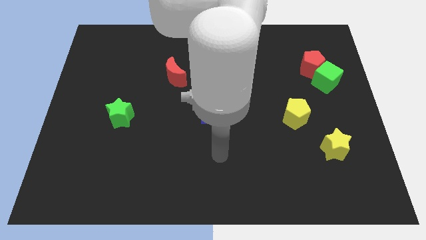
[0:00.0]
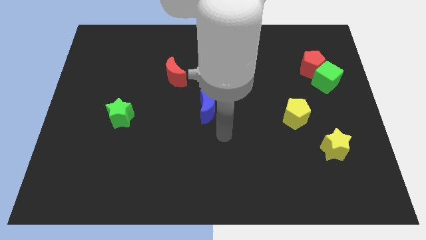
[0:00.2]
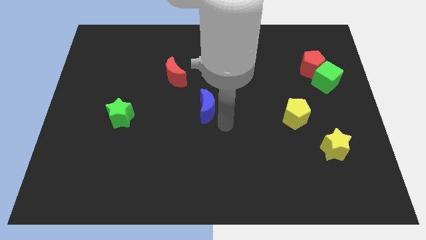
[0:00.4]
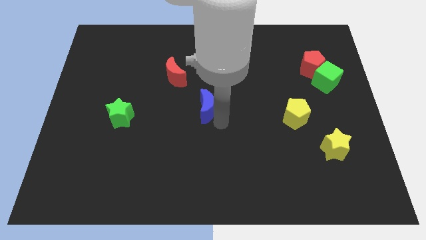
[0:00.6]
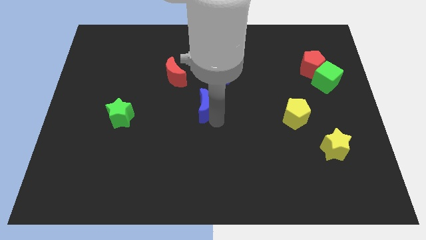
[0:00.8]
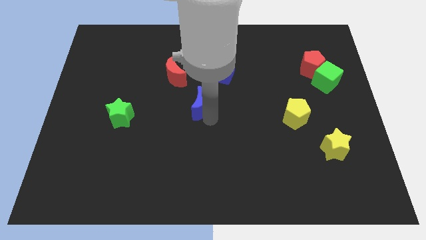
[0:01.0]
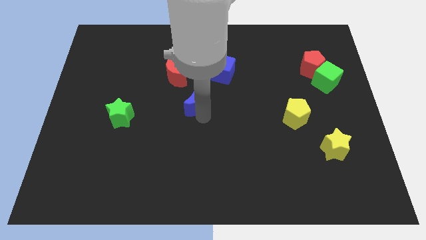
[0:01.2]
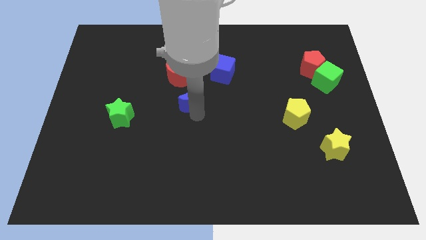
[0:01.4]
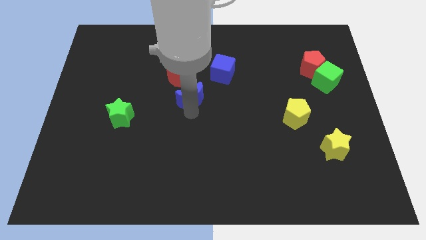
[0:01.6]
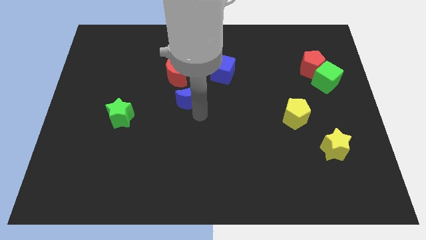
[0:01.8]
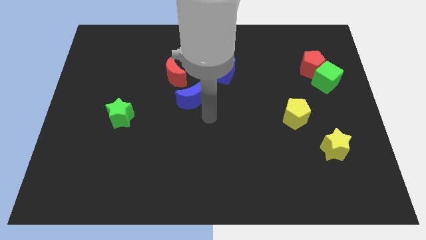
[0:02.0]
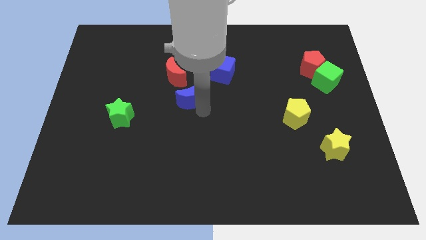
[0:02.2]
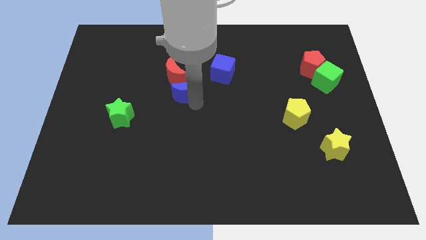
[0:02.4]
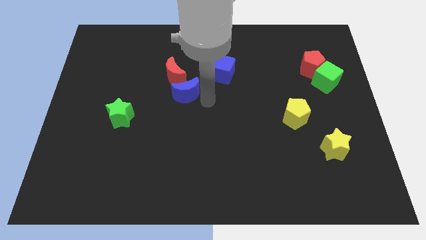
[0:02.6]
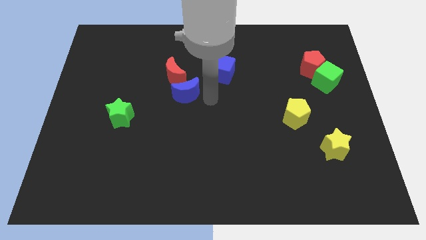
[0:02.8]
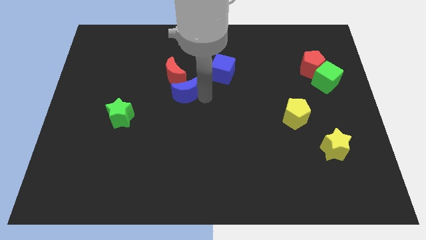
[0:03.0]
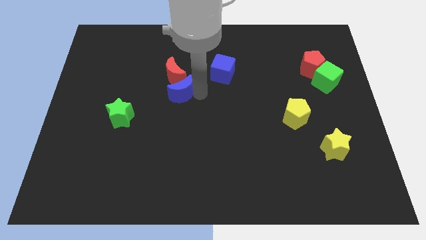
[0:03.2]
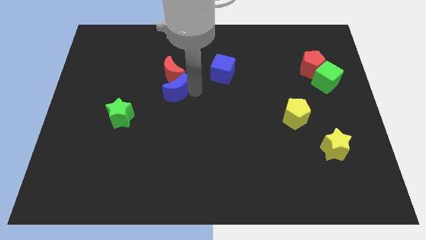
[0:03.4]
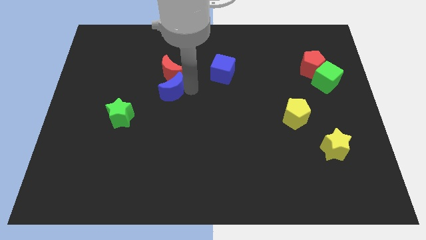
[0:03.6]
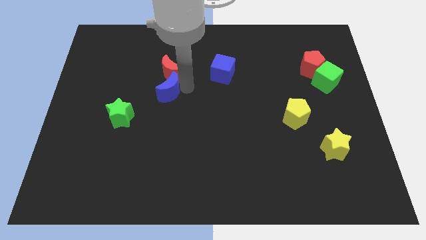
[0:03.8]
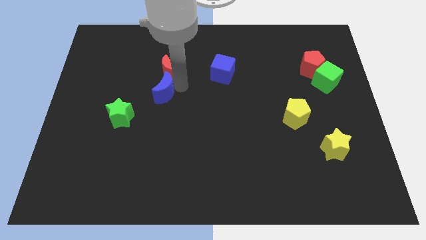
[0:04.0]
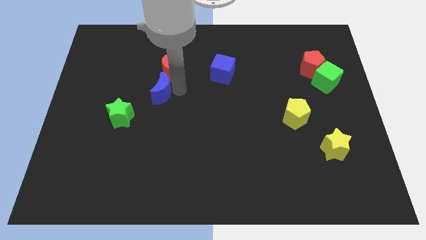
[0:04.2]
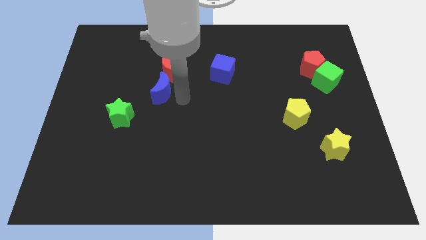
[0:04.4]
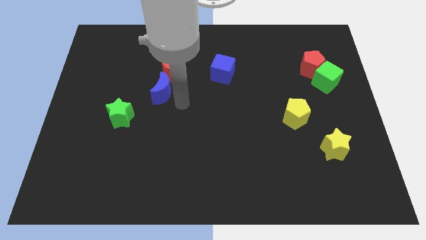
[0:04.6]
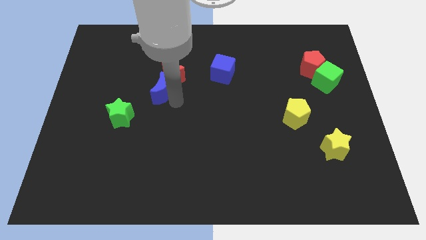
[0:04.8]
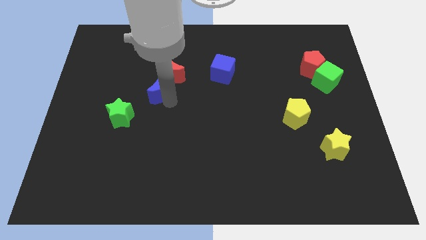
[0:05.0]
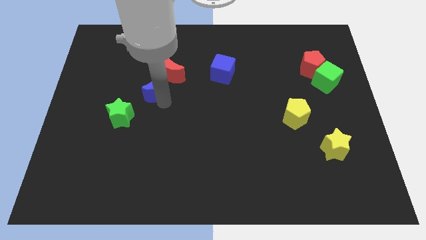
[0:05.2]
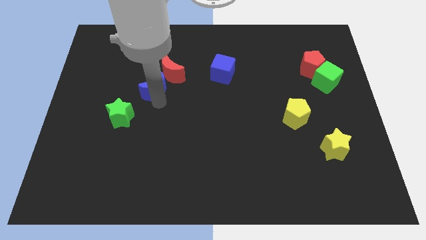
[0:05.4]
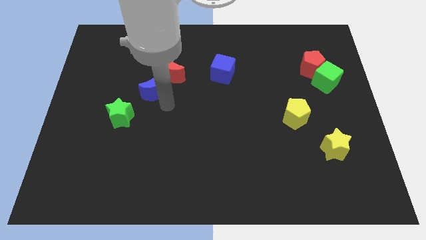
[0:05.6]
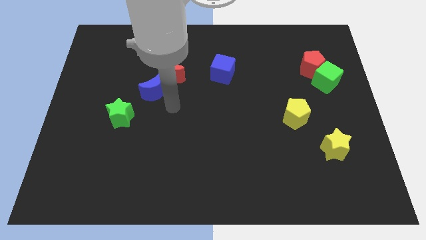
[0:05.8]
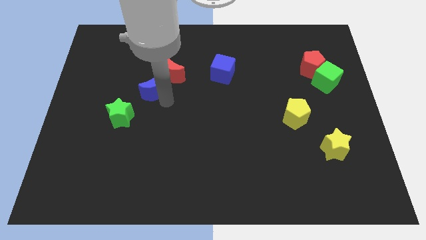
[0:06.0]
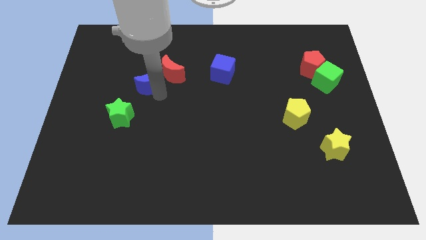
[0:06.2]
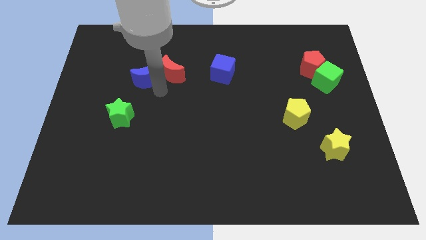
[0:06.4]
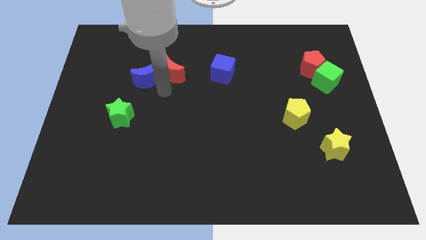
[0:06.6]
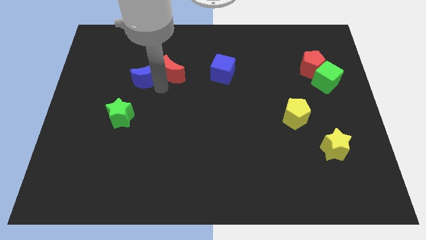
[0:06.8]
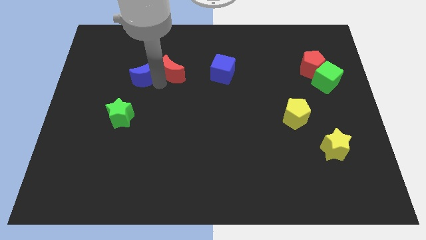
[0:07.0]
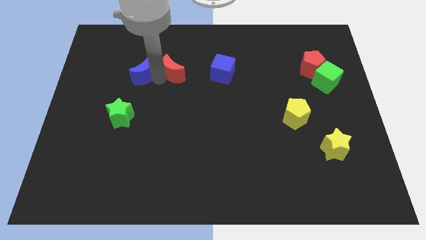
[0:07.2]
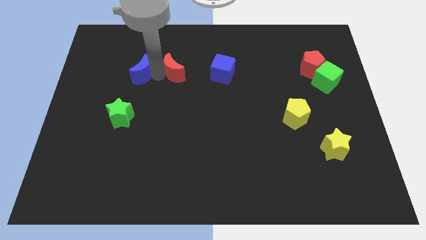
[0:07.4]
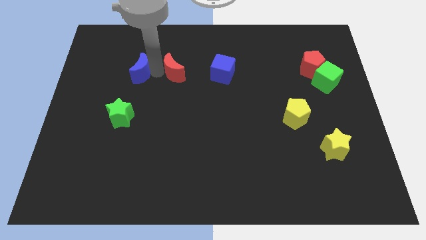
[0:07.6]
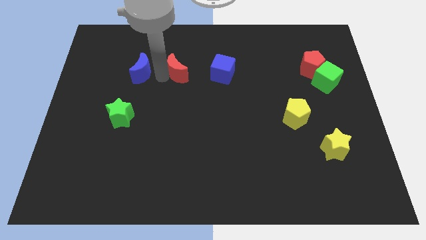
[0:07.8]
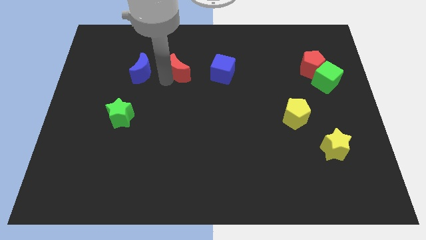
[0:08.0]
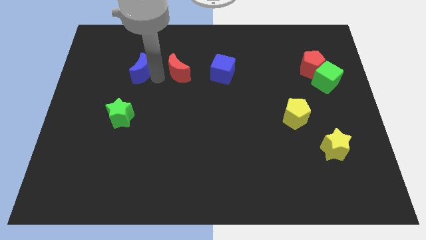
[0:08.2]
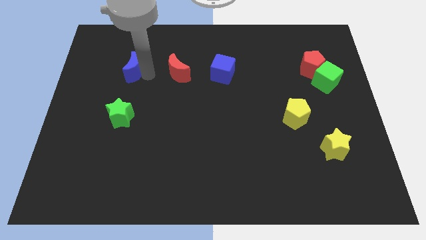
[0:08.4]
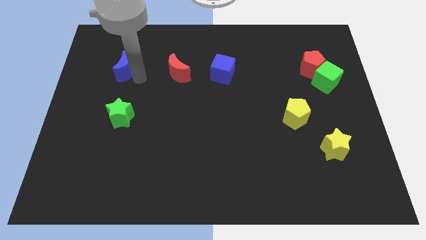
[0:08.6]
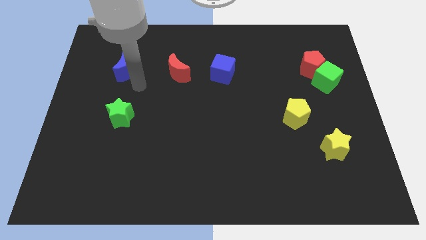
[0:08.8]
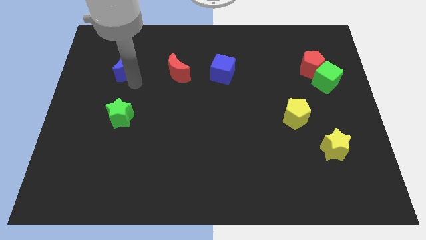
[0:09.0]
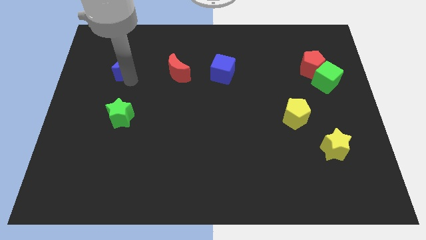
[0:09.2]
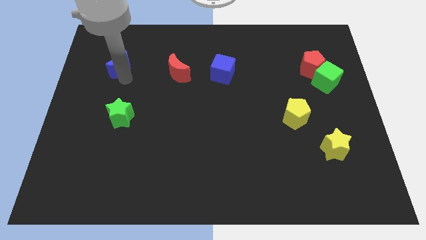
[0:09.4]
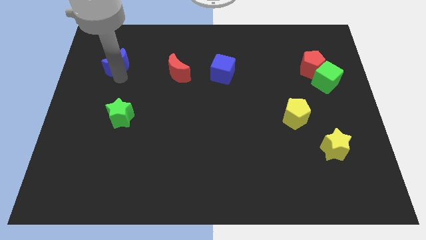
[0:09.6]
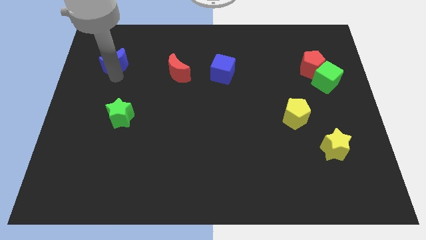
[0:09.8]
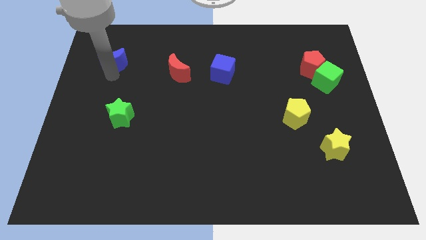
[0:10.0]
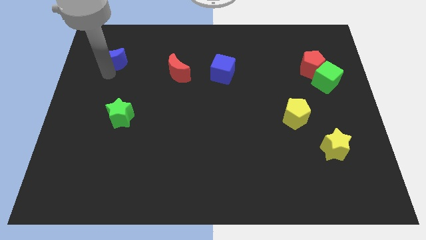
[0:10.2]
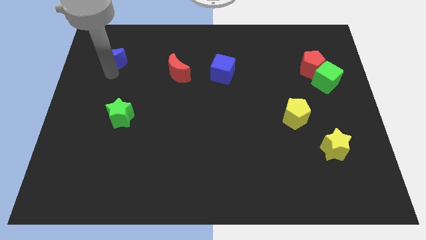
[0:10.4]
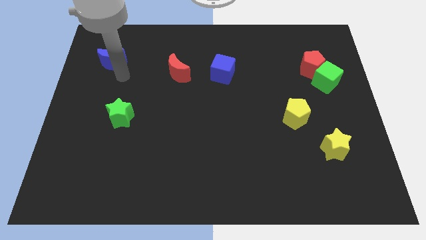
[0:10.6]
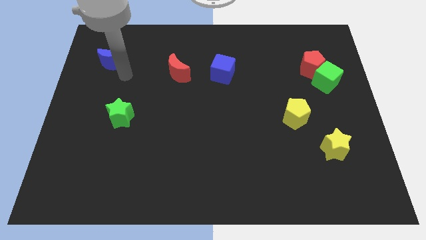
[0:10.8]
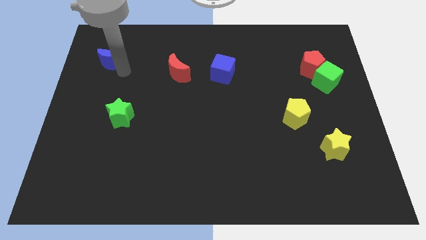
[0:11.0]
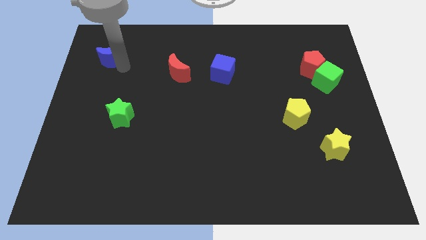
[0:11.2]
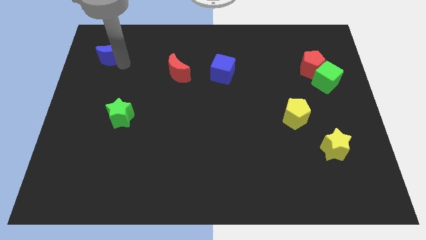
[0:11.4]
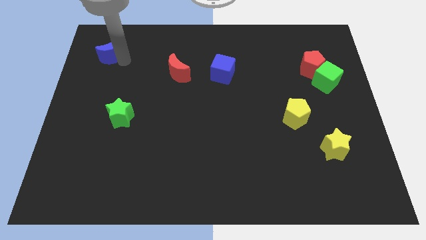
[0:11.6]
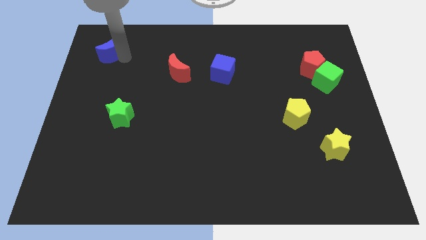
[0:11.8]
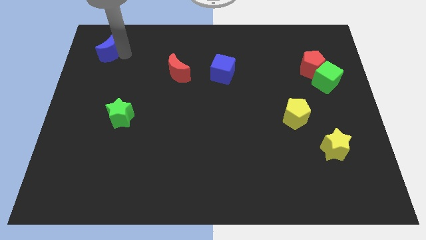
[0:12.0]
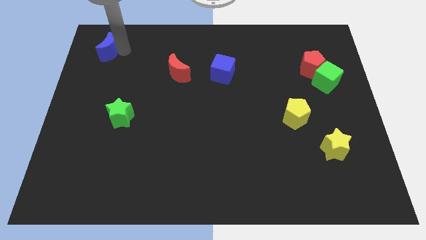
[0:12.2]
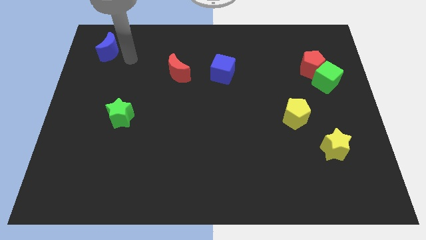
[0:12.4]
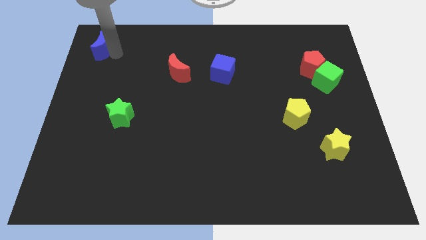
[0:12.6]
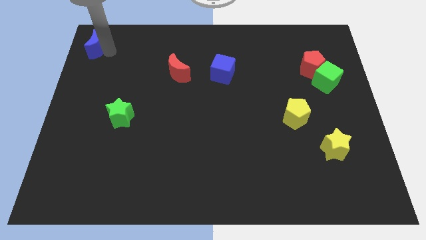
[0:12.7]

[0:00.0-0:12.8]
move the blue moon to the top left of the board
